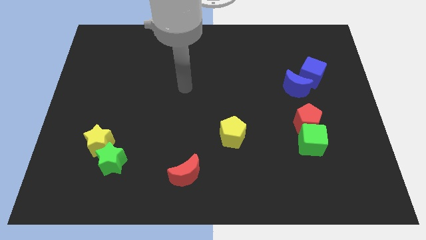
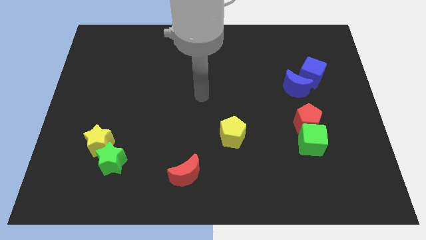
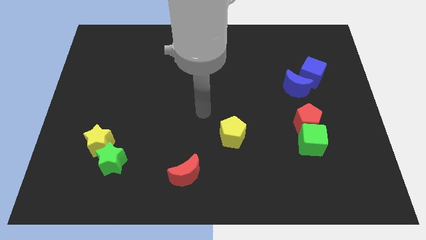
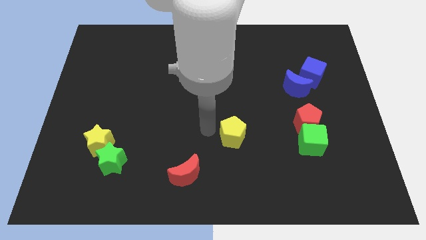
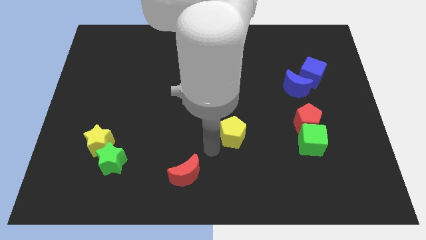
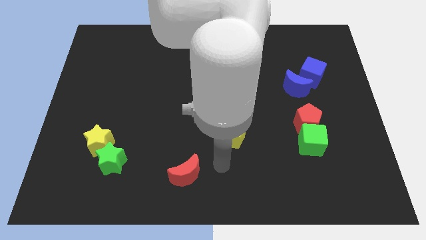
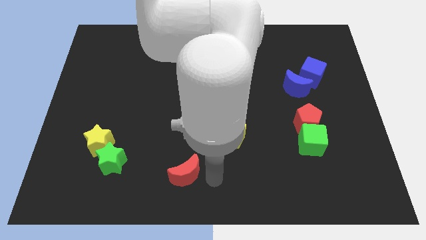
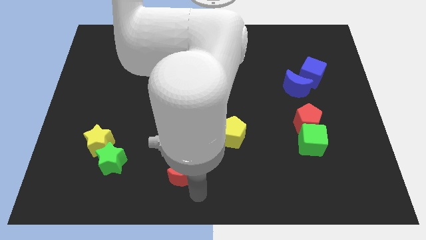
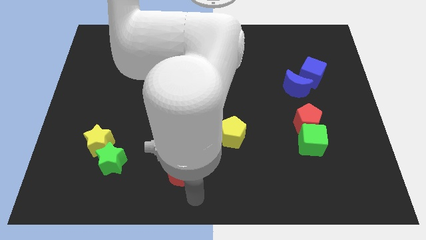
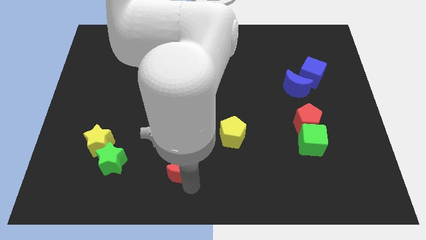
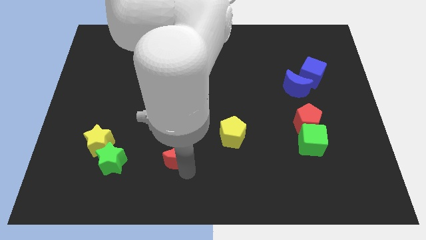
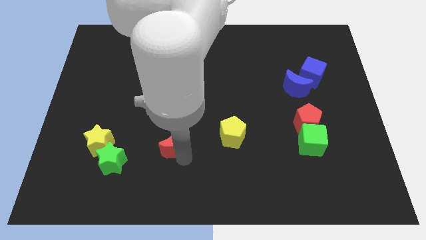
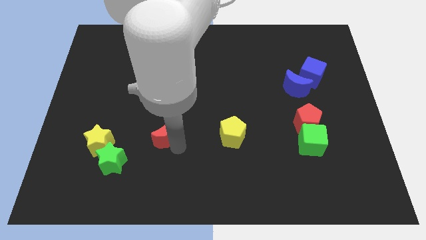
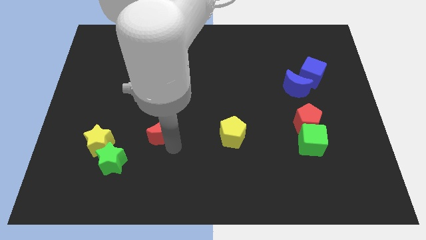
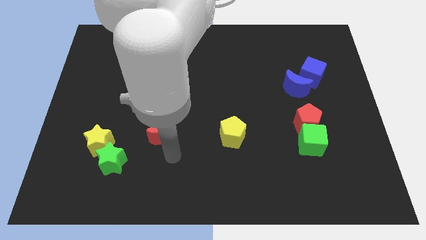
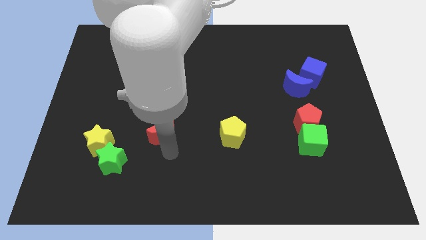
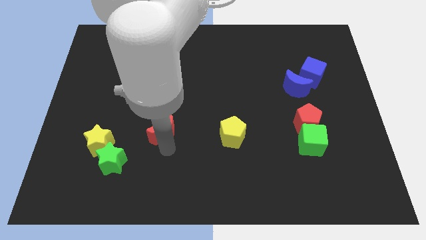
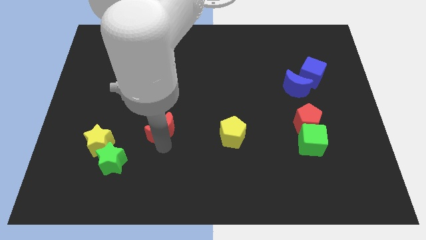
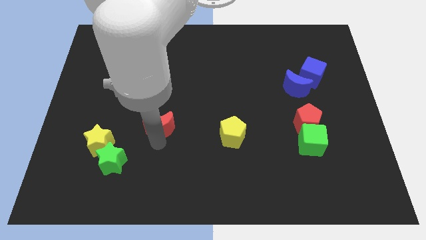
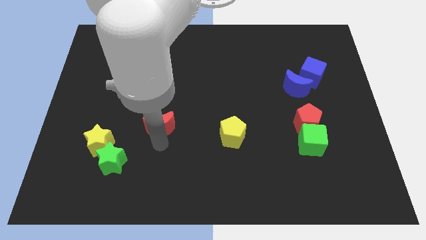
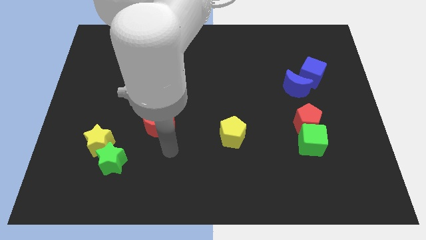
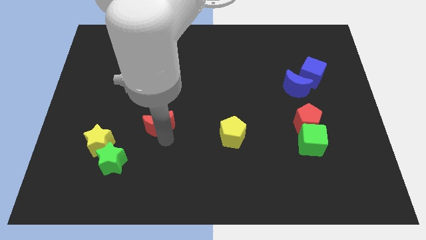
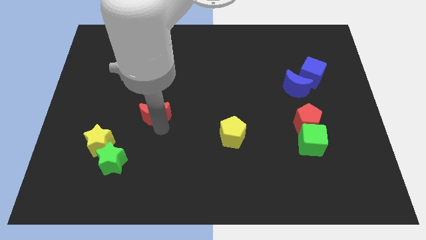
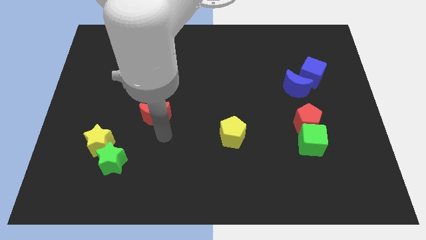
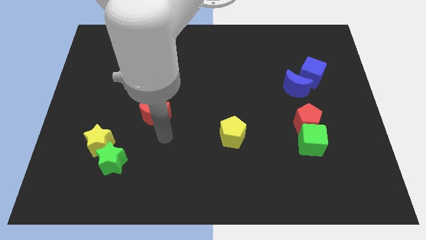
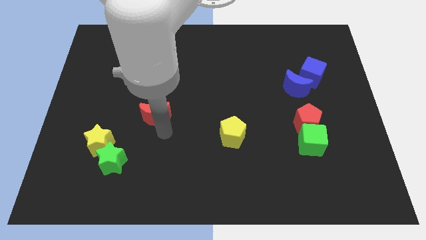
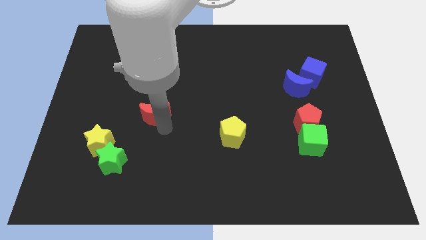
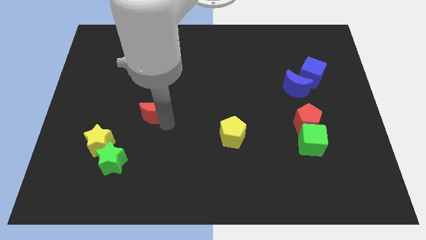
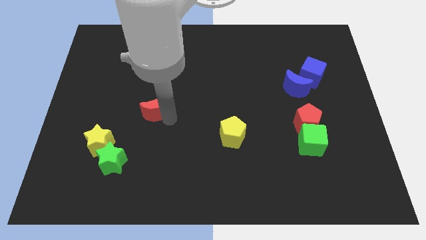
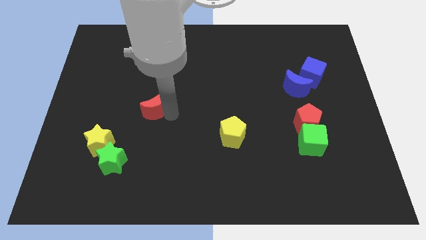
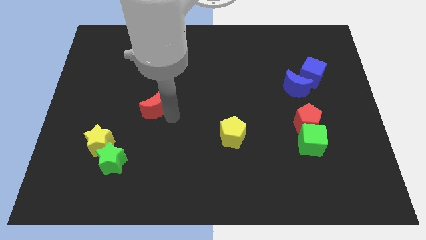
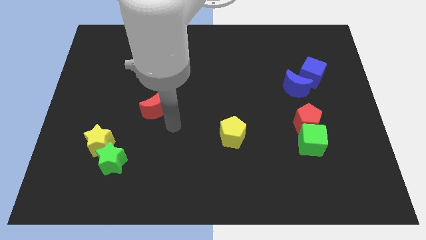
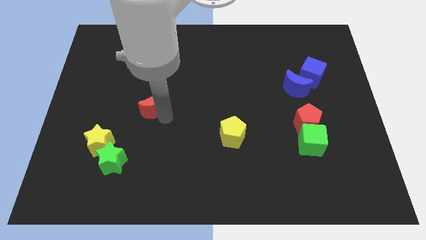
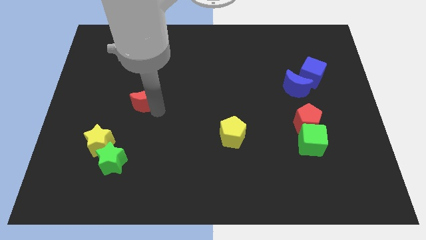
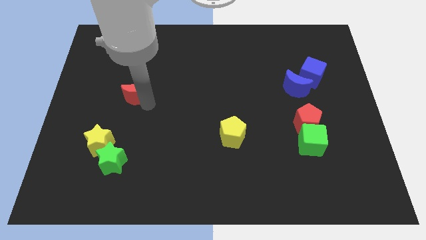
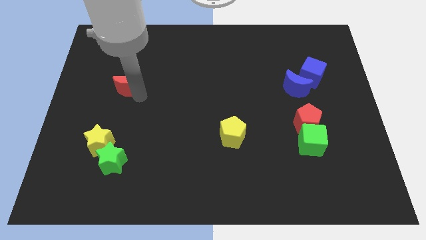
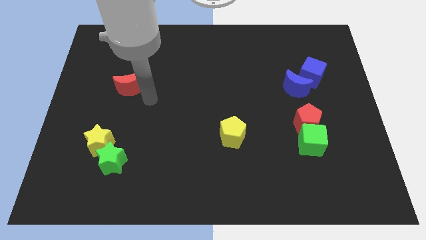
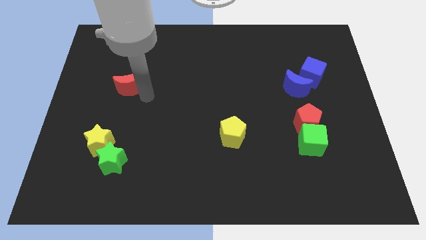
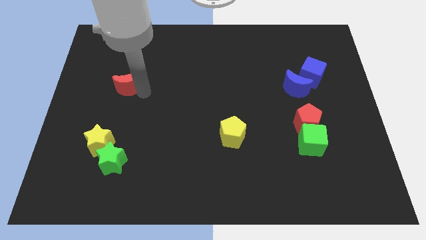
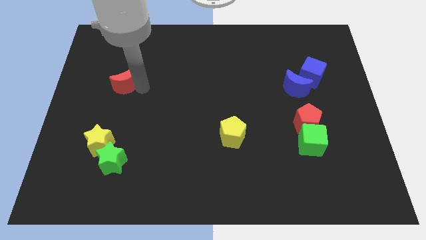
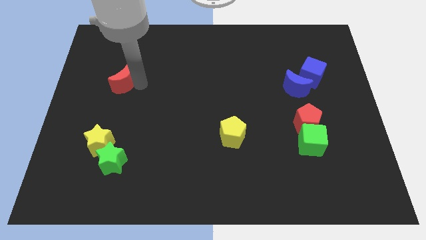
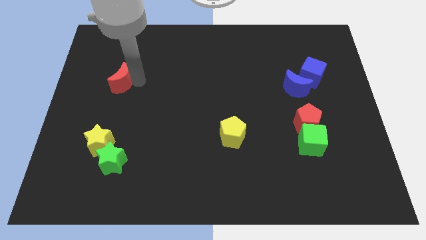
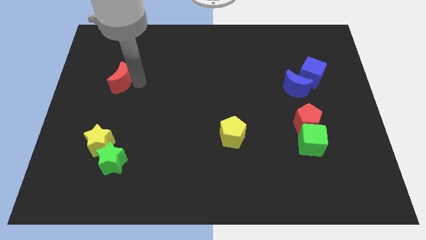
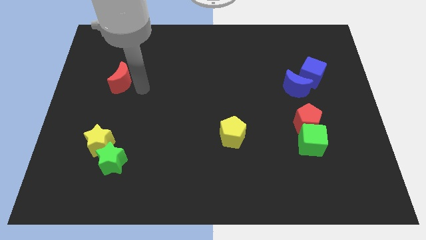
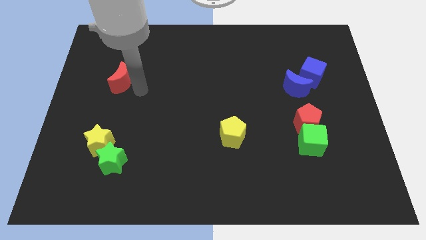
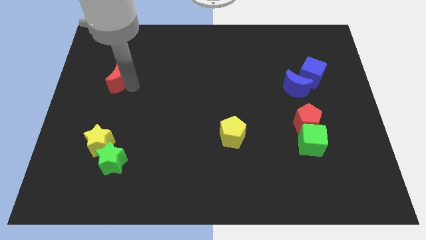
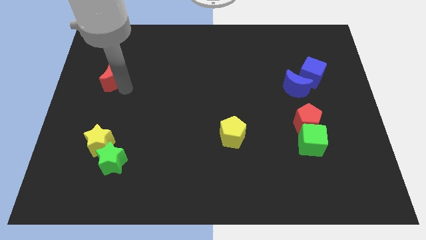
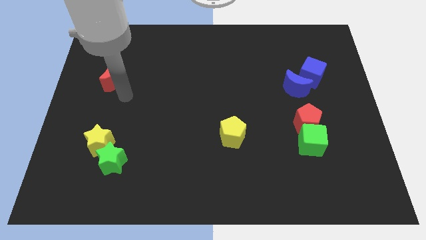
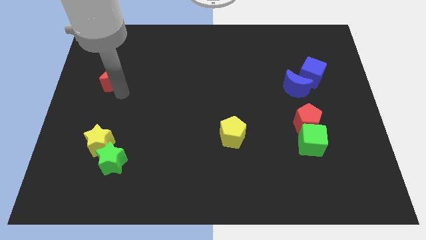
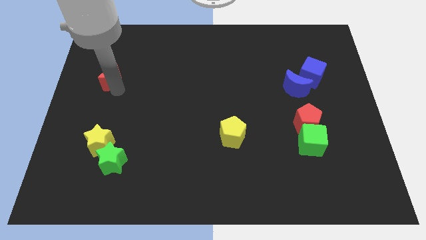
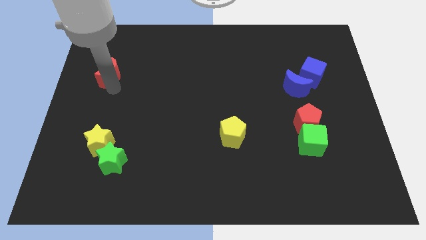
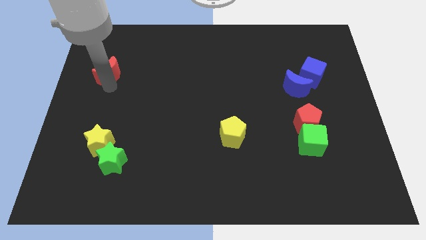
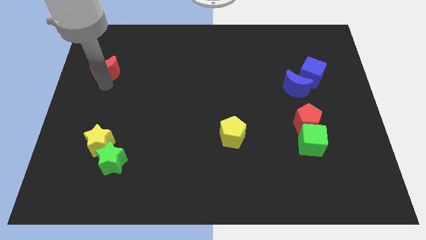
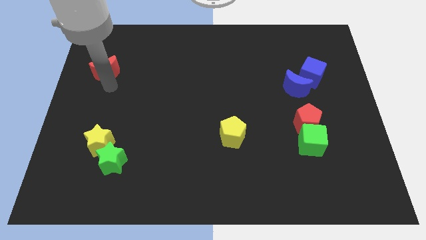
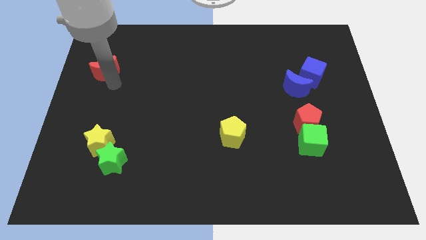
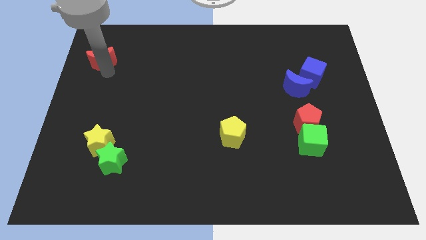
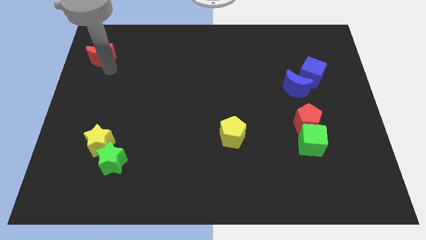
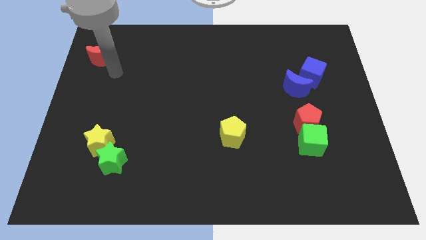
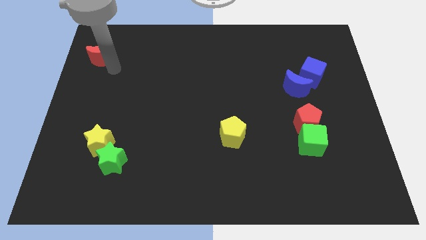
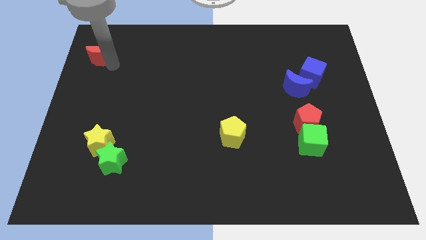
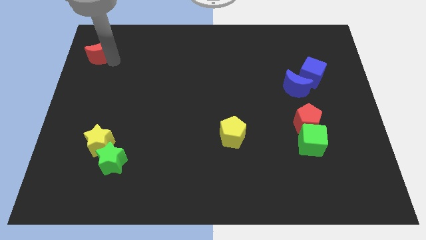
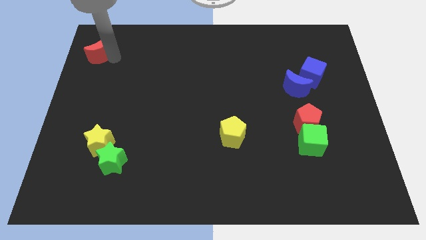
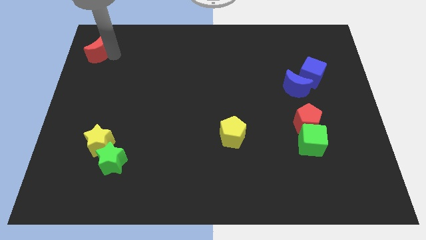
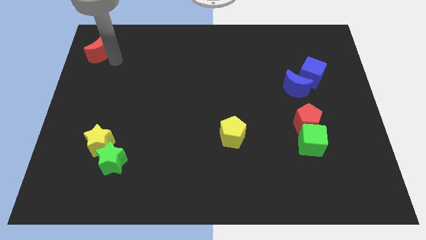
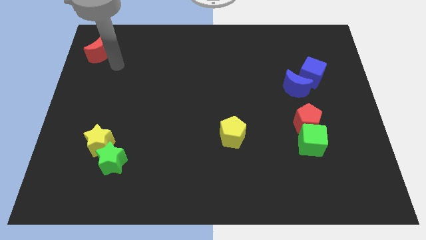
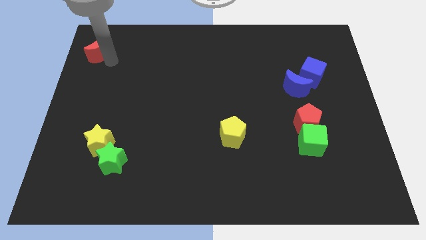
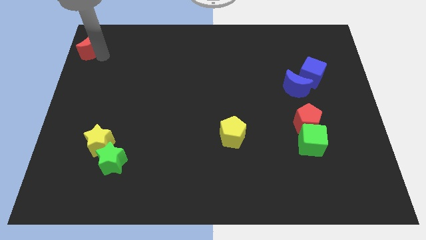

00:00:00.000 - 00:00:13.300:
put the red moon to the top left
